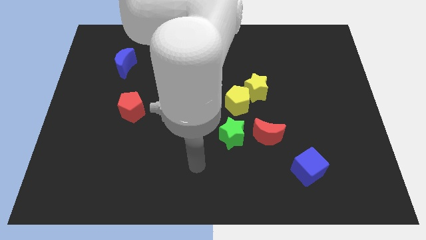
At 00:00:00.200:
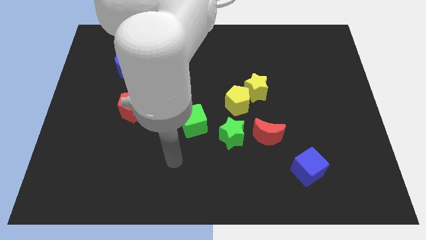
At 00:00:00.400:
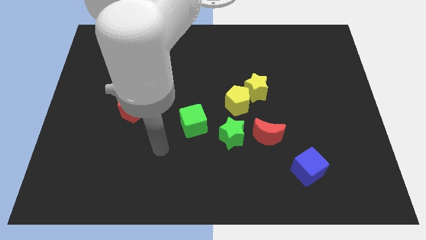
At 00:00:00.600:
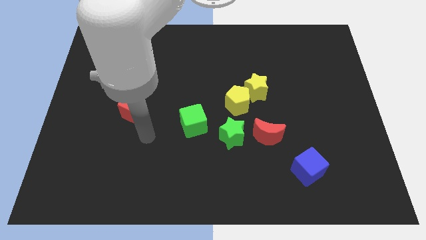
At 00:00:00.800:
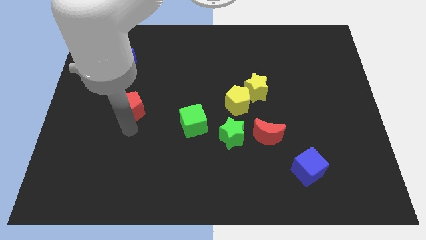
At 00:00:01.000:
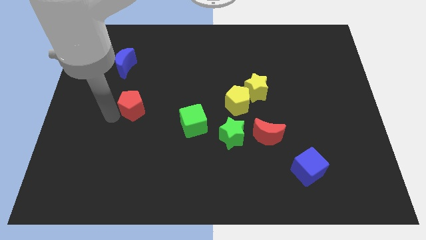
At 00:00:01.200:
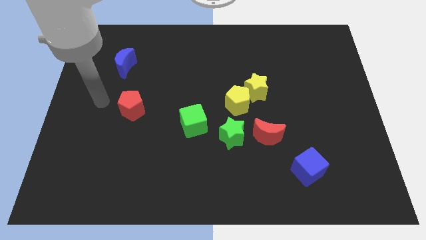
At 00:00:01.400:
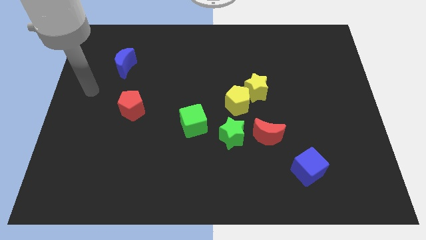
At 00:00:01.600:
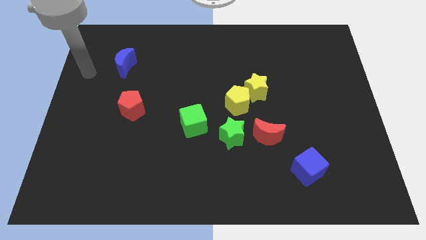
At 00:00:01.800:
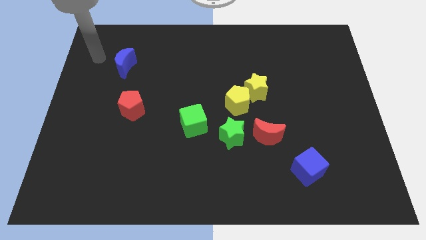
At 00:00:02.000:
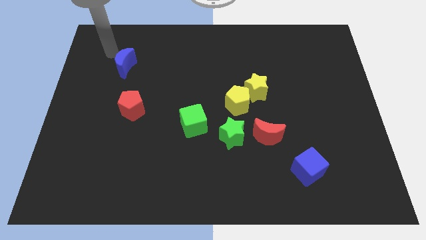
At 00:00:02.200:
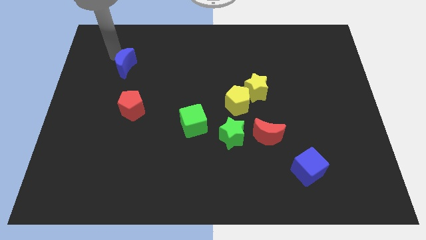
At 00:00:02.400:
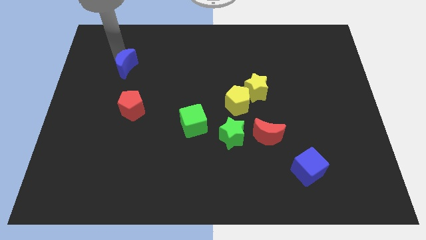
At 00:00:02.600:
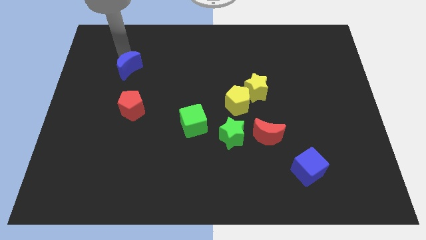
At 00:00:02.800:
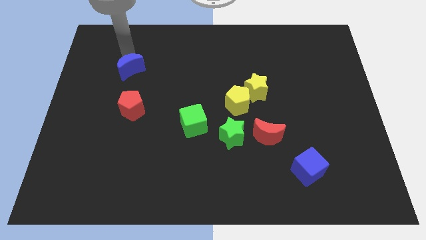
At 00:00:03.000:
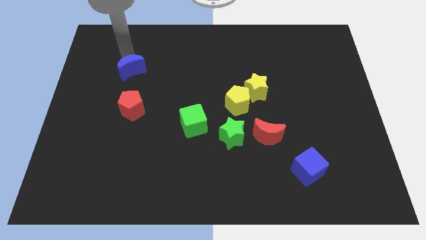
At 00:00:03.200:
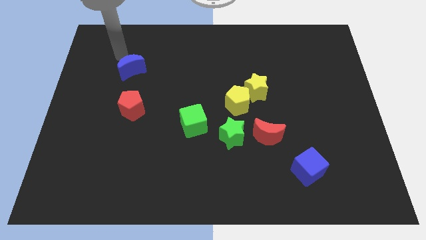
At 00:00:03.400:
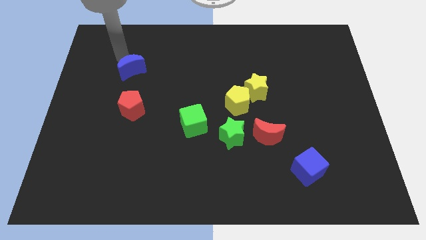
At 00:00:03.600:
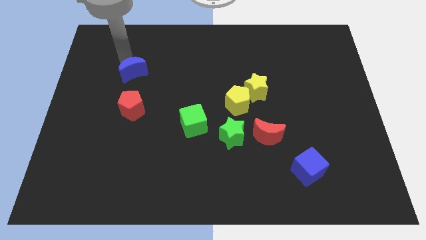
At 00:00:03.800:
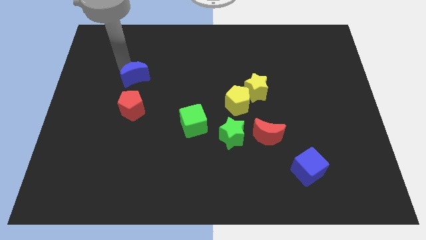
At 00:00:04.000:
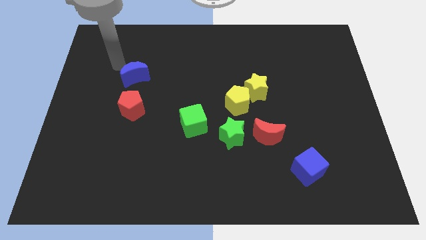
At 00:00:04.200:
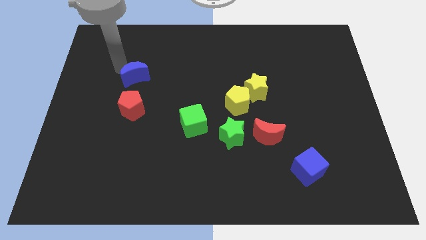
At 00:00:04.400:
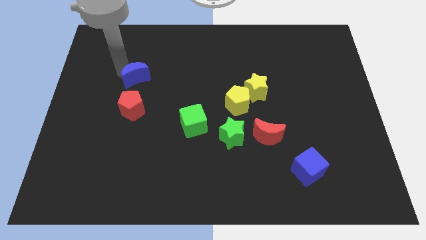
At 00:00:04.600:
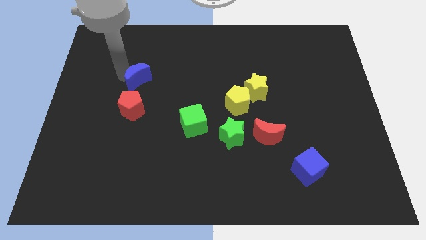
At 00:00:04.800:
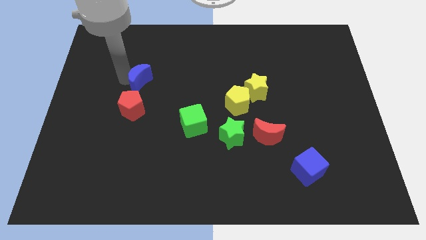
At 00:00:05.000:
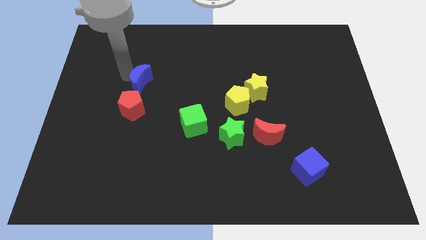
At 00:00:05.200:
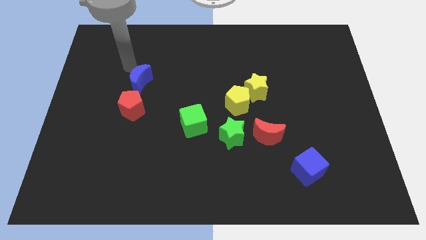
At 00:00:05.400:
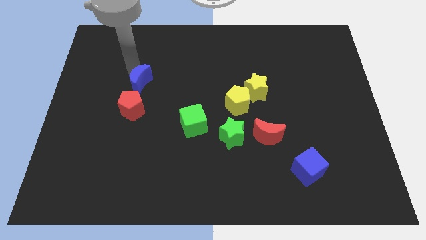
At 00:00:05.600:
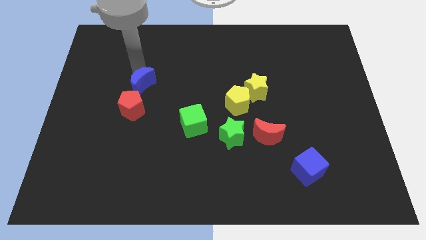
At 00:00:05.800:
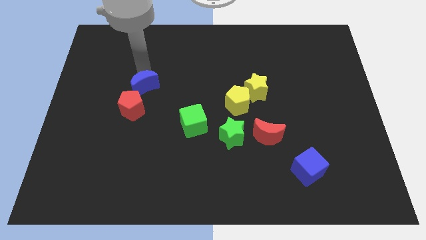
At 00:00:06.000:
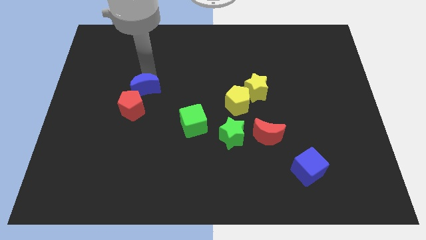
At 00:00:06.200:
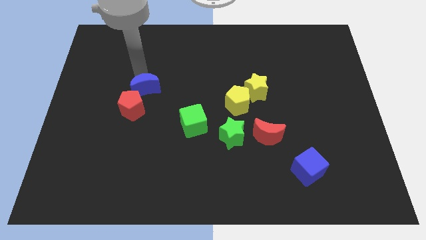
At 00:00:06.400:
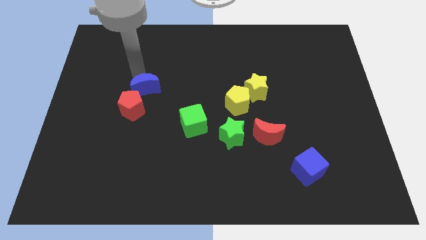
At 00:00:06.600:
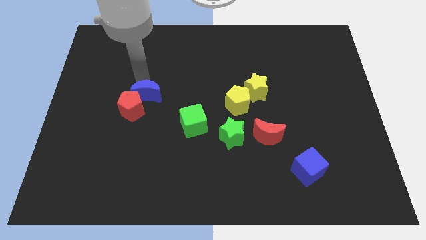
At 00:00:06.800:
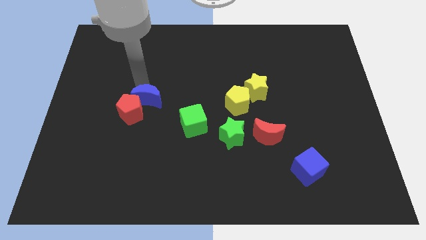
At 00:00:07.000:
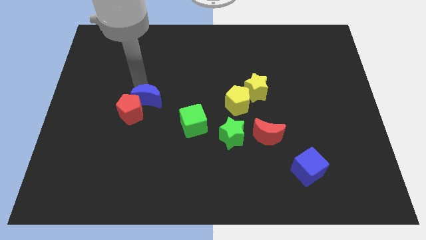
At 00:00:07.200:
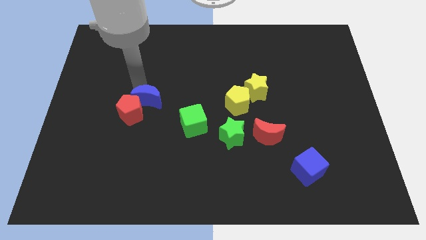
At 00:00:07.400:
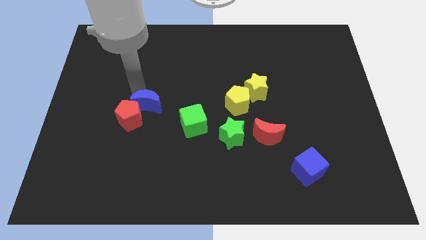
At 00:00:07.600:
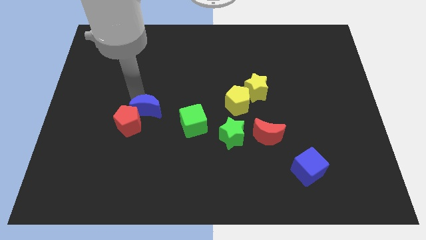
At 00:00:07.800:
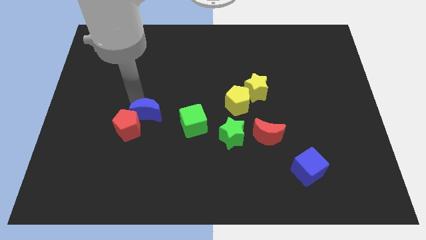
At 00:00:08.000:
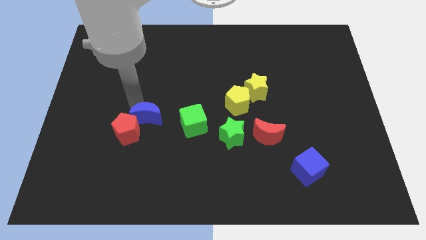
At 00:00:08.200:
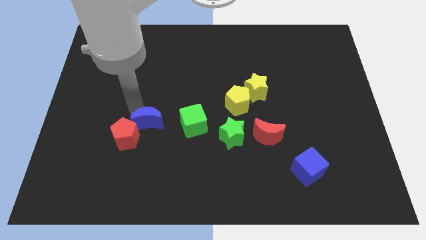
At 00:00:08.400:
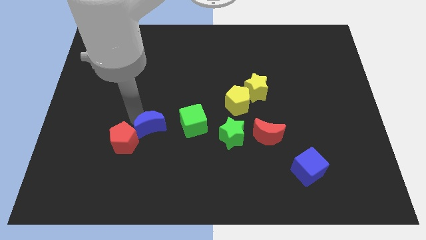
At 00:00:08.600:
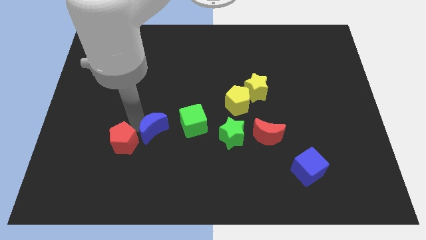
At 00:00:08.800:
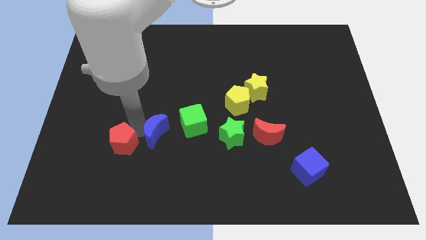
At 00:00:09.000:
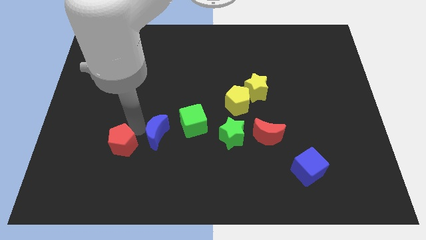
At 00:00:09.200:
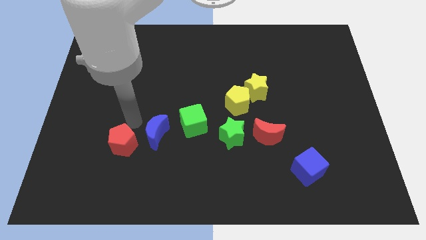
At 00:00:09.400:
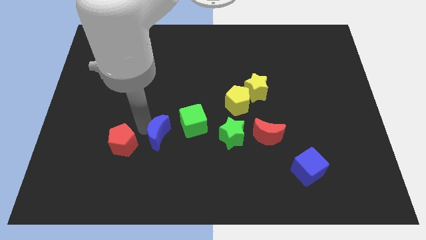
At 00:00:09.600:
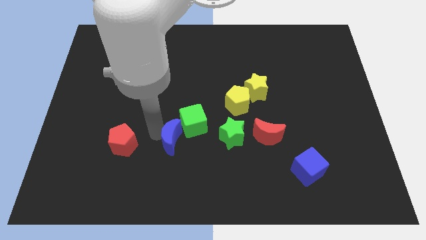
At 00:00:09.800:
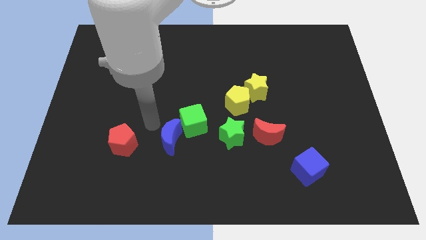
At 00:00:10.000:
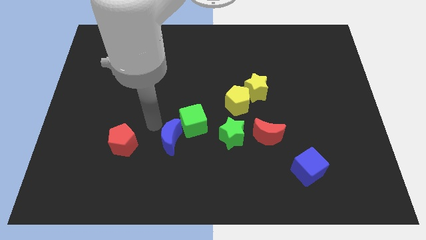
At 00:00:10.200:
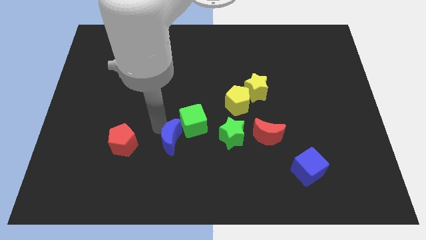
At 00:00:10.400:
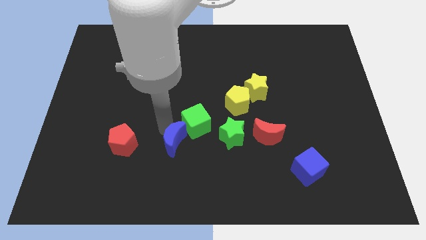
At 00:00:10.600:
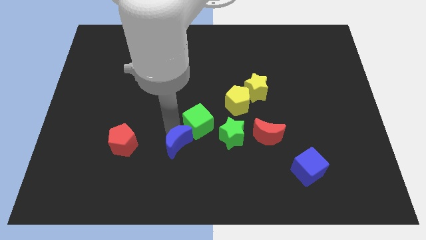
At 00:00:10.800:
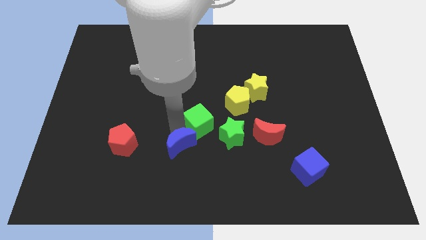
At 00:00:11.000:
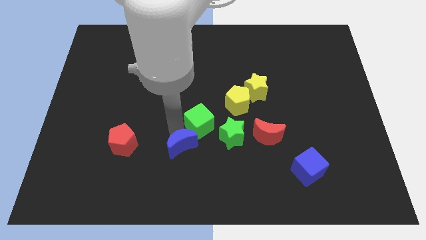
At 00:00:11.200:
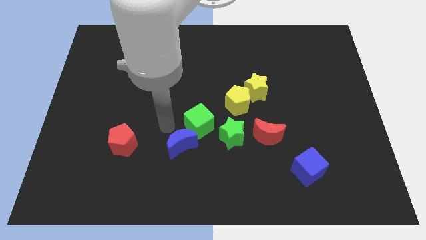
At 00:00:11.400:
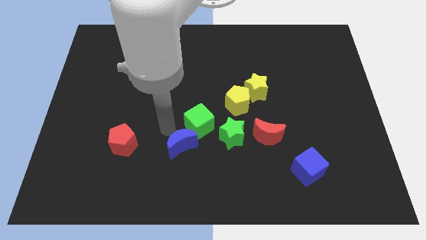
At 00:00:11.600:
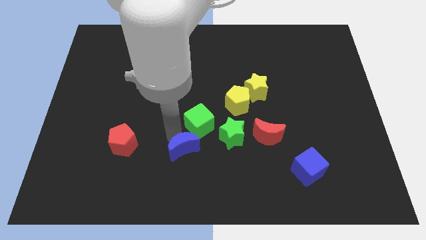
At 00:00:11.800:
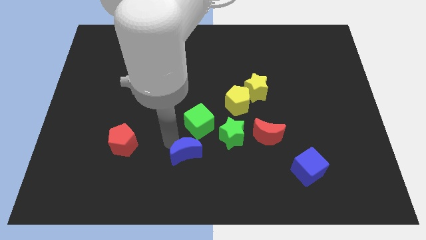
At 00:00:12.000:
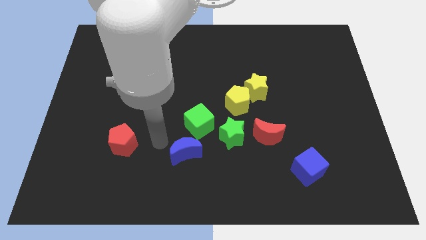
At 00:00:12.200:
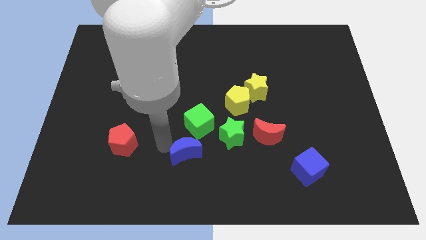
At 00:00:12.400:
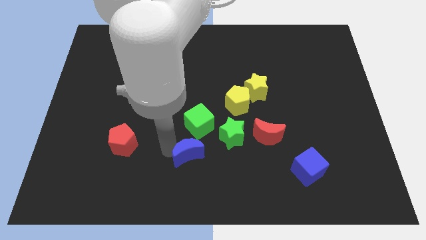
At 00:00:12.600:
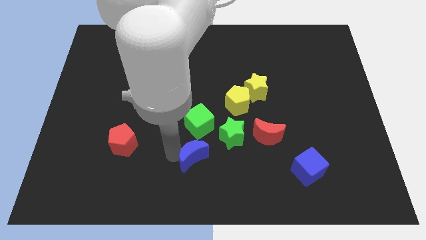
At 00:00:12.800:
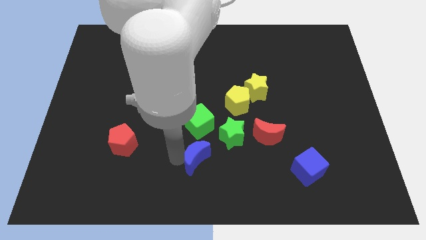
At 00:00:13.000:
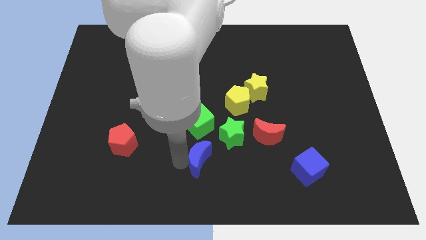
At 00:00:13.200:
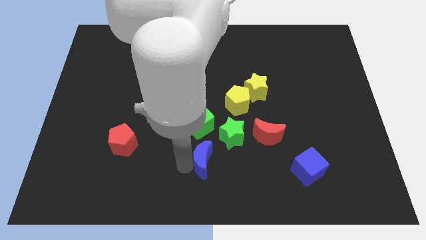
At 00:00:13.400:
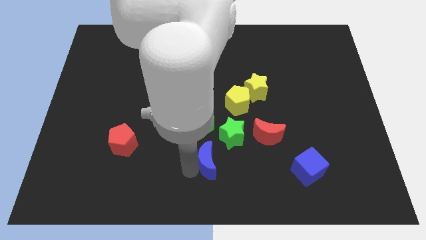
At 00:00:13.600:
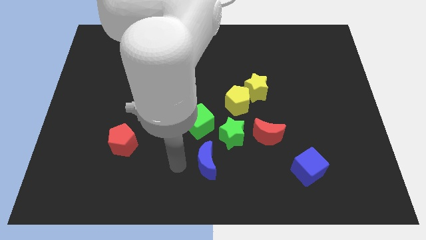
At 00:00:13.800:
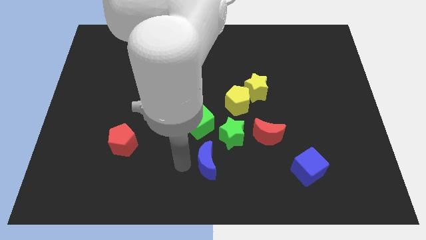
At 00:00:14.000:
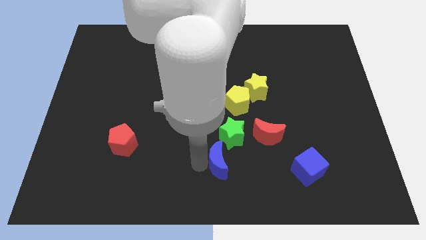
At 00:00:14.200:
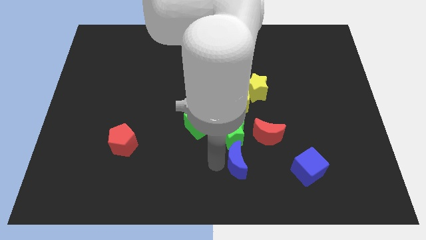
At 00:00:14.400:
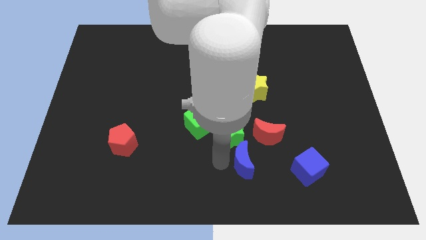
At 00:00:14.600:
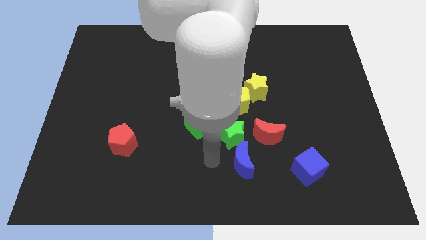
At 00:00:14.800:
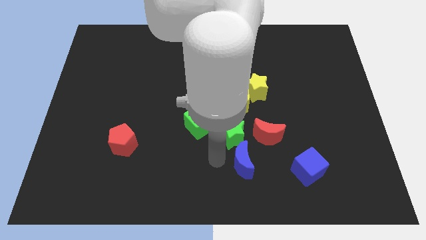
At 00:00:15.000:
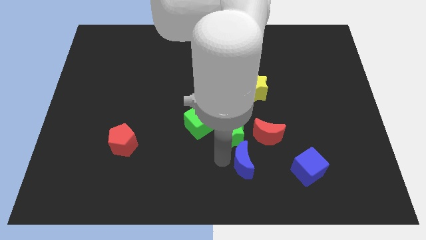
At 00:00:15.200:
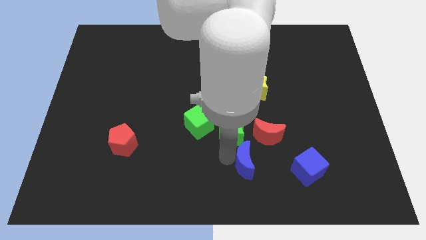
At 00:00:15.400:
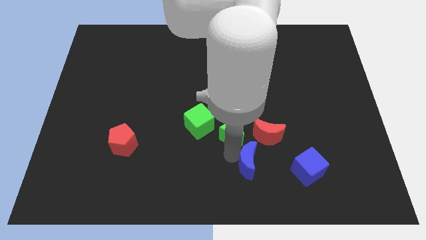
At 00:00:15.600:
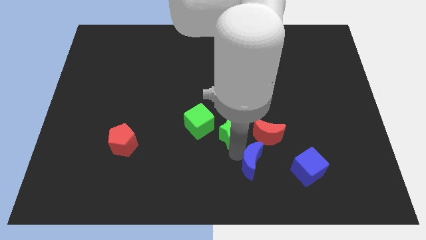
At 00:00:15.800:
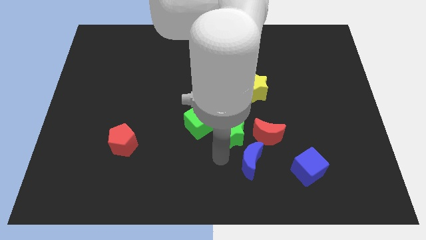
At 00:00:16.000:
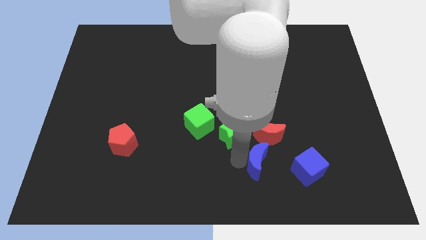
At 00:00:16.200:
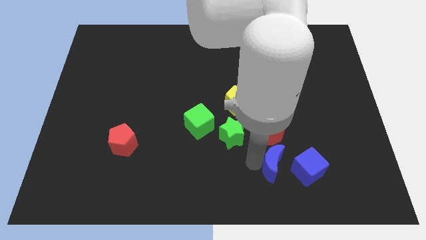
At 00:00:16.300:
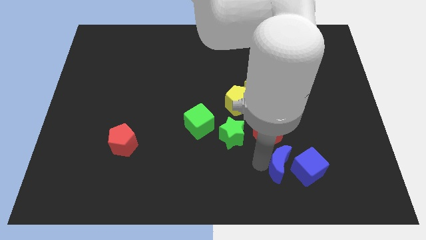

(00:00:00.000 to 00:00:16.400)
put the blue moon to the blue cube
